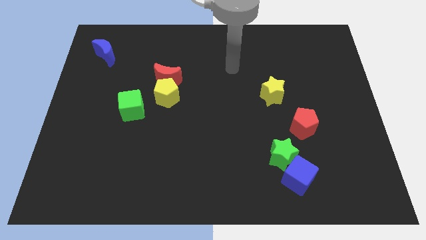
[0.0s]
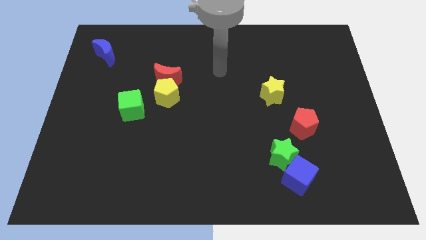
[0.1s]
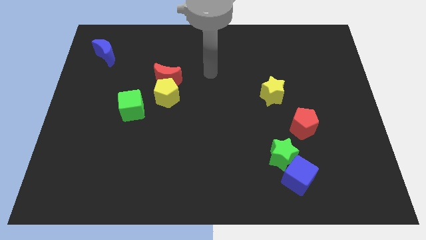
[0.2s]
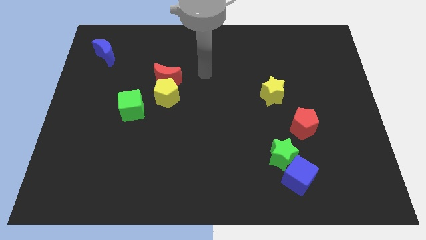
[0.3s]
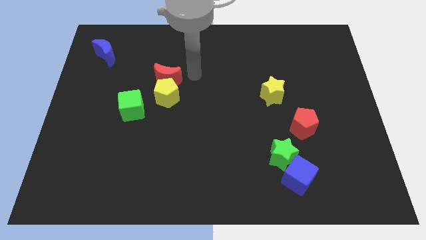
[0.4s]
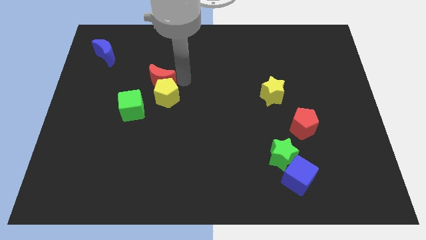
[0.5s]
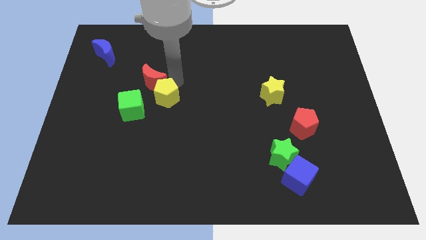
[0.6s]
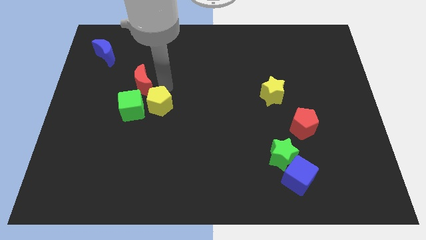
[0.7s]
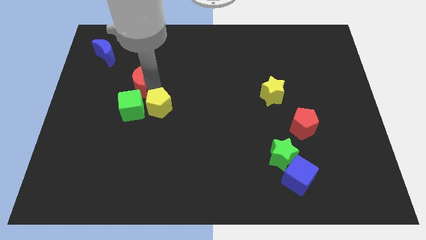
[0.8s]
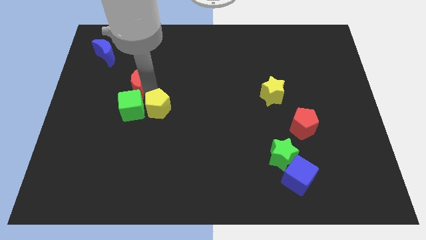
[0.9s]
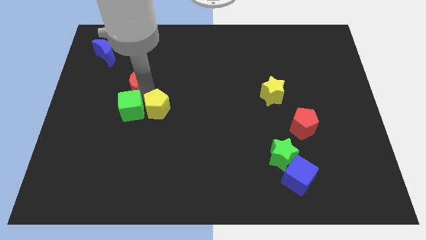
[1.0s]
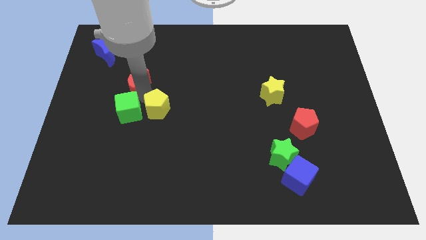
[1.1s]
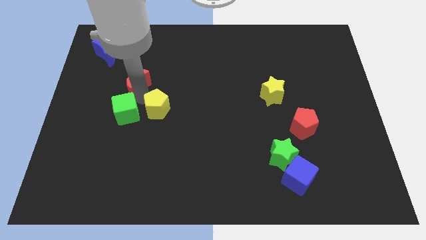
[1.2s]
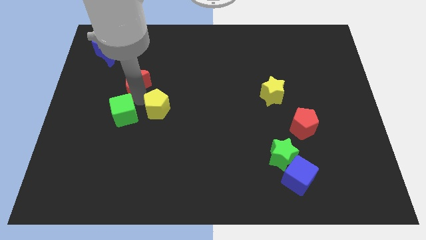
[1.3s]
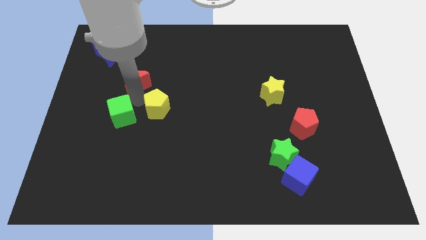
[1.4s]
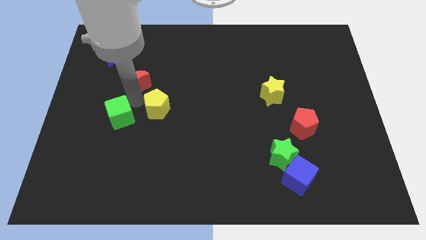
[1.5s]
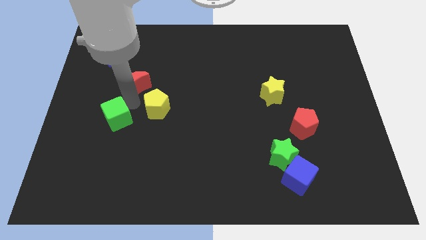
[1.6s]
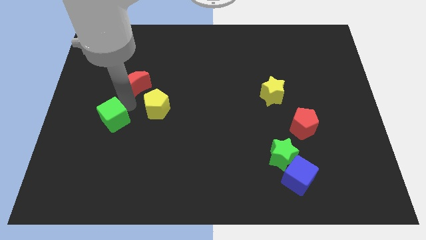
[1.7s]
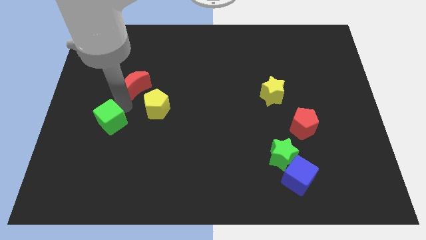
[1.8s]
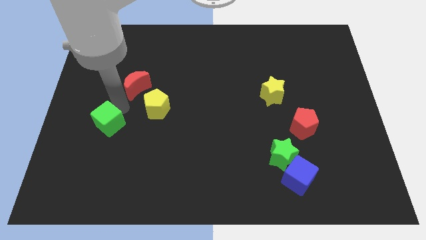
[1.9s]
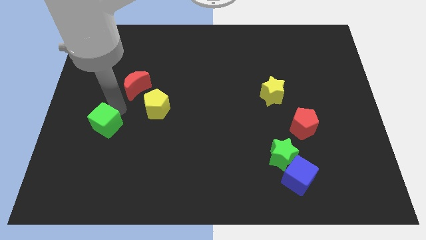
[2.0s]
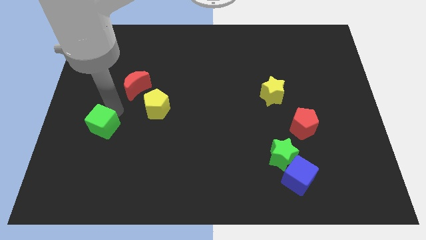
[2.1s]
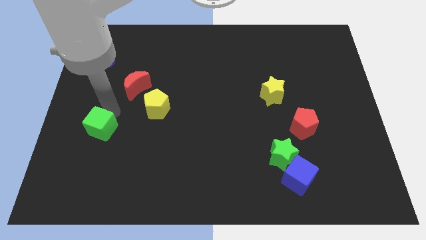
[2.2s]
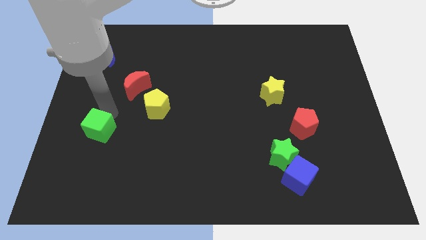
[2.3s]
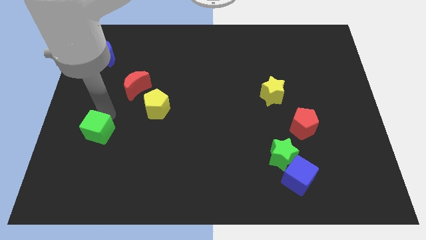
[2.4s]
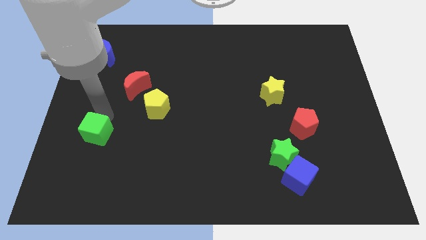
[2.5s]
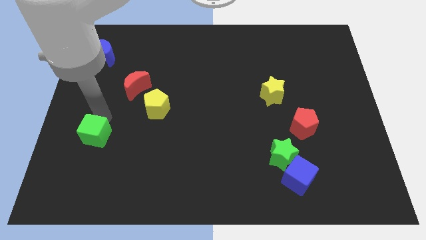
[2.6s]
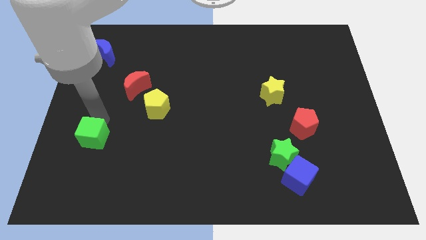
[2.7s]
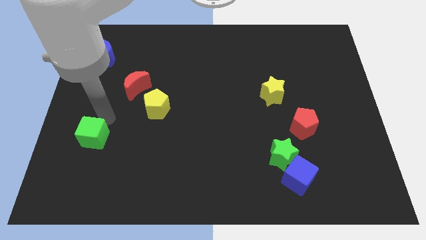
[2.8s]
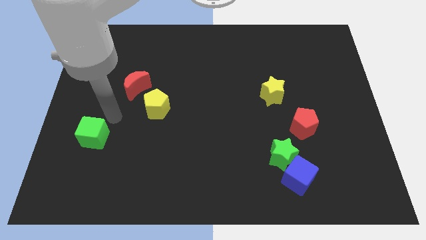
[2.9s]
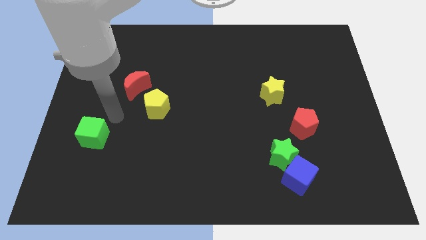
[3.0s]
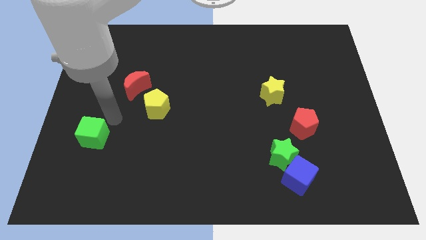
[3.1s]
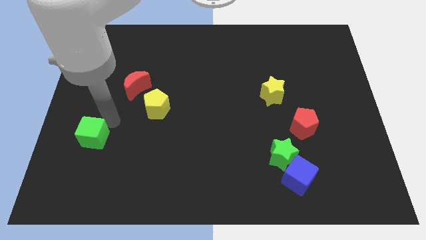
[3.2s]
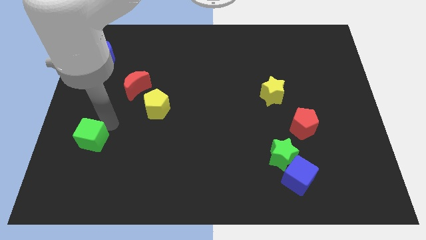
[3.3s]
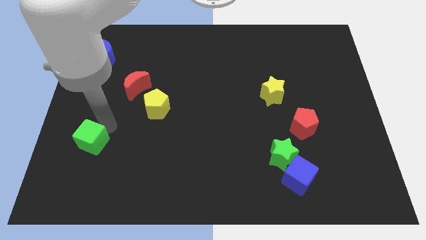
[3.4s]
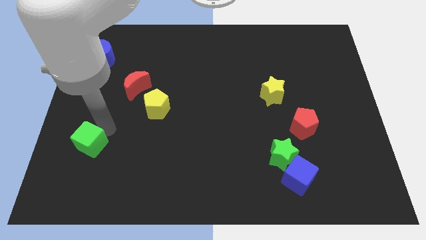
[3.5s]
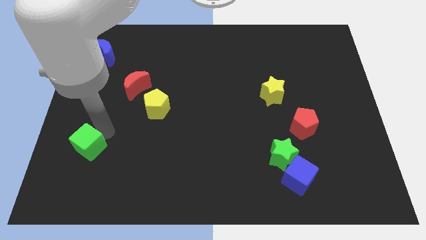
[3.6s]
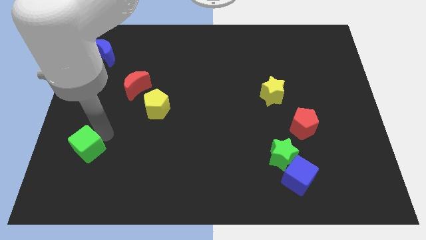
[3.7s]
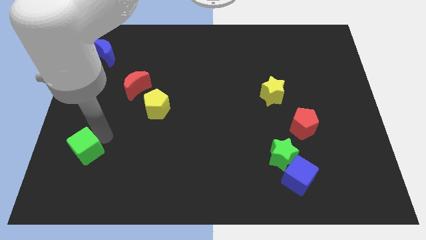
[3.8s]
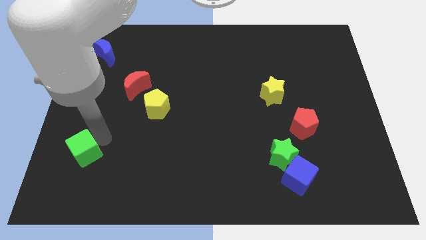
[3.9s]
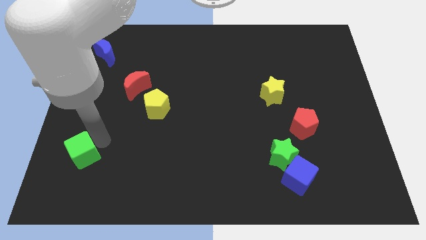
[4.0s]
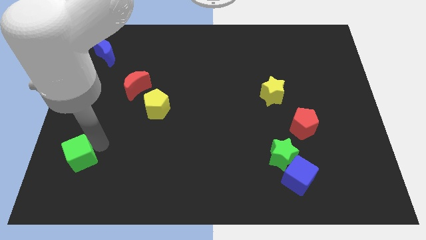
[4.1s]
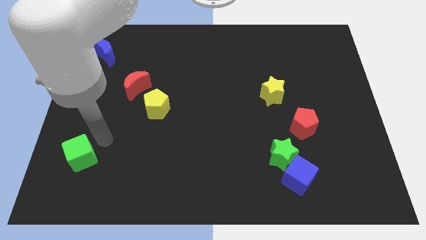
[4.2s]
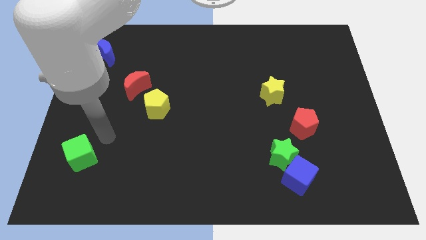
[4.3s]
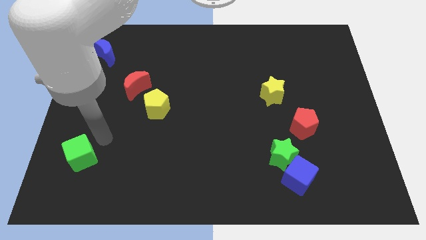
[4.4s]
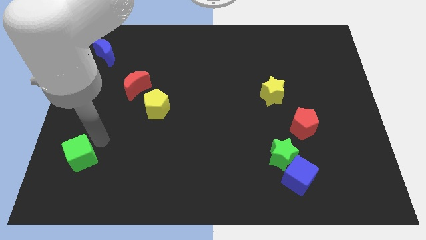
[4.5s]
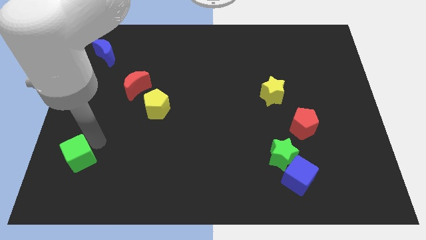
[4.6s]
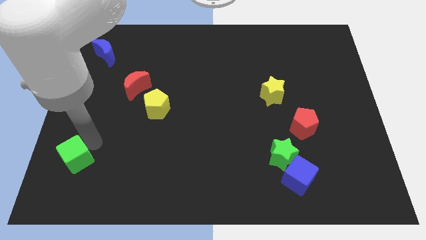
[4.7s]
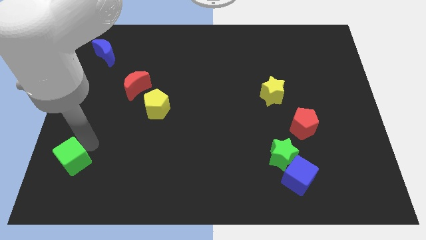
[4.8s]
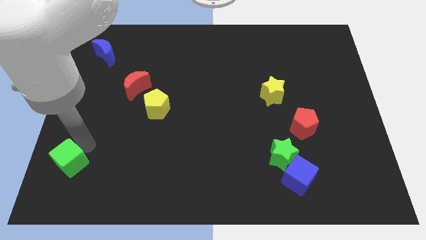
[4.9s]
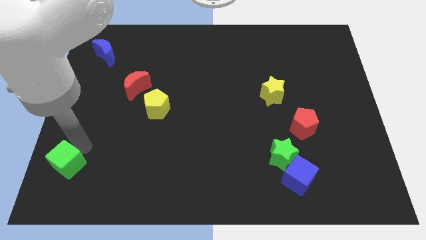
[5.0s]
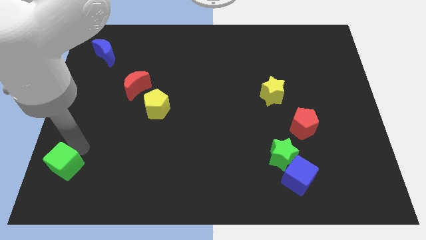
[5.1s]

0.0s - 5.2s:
move the green cube to the bottom left corner

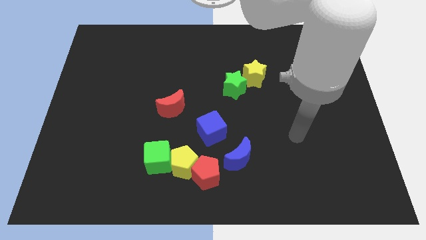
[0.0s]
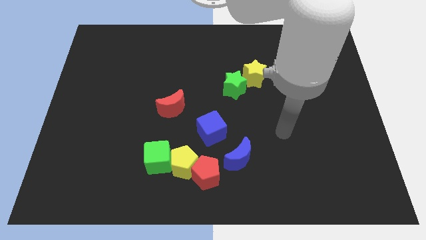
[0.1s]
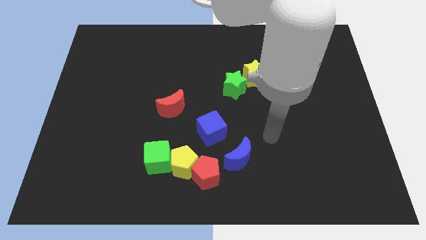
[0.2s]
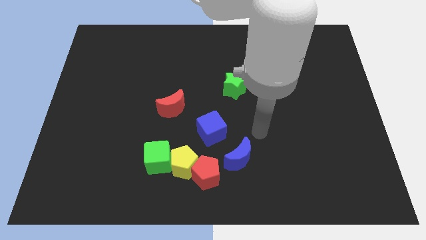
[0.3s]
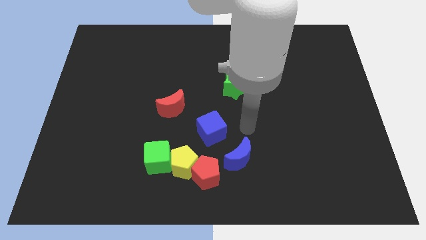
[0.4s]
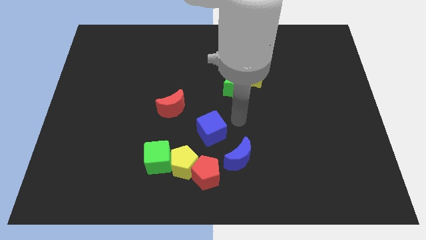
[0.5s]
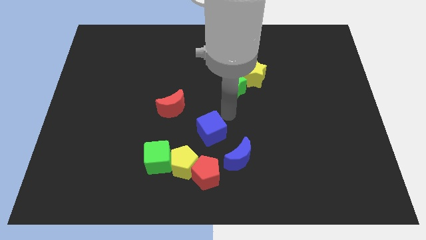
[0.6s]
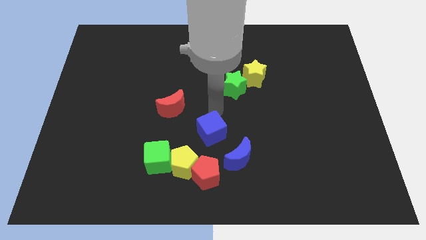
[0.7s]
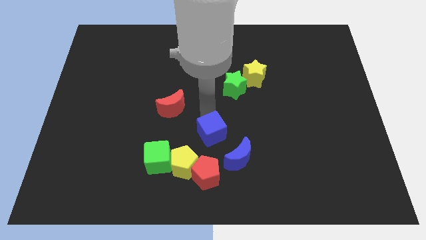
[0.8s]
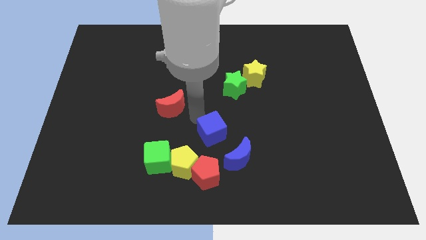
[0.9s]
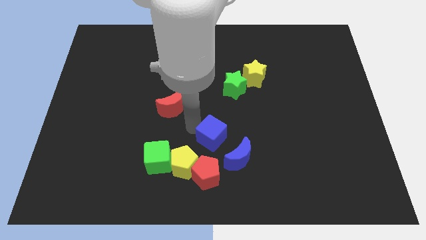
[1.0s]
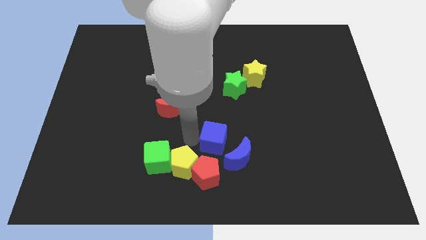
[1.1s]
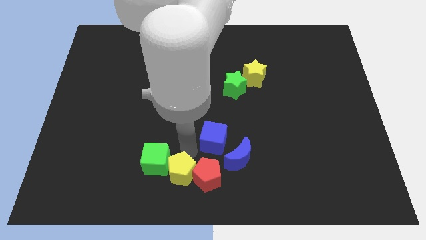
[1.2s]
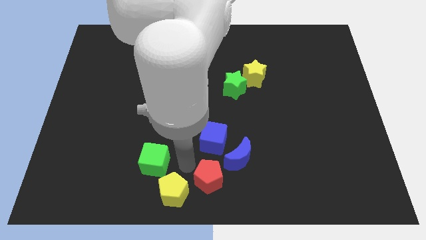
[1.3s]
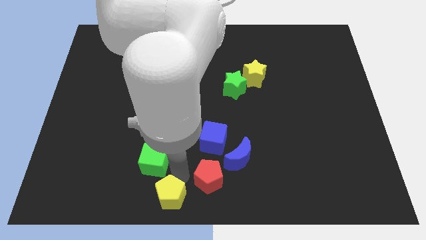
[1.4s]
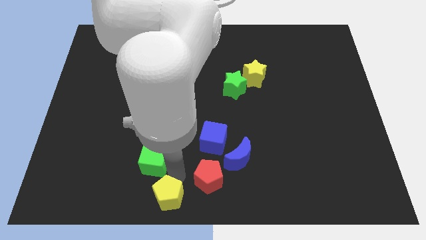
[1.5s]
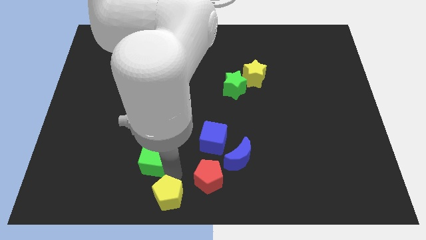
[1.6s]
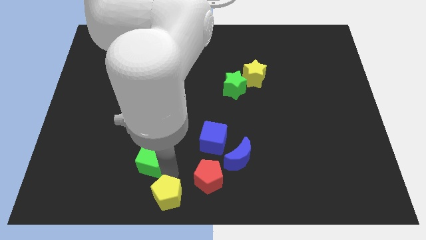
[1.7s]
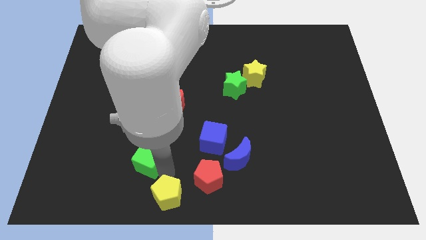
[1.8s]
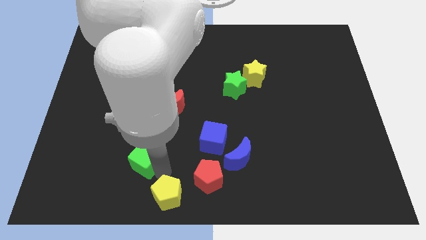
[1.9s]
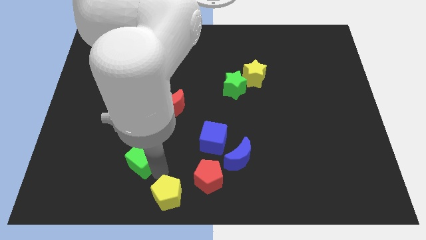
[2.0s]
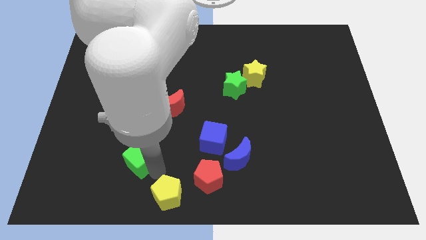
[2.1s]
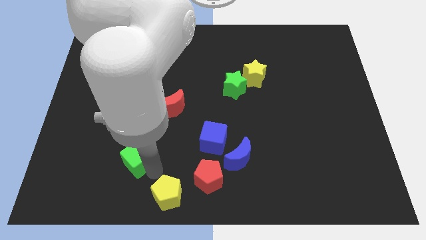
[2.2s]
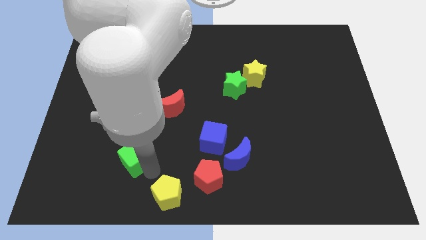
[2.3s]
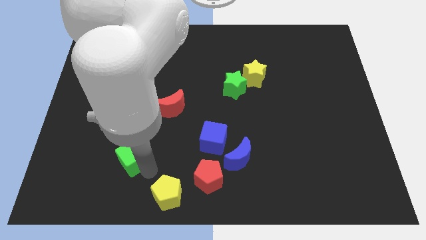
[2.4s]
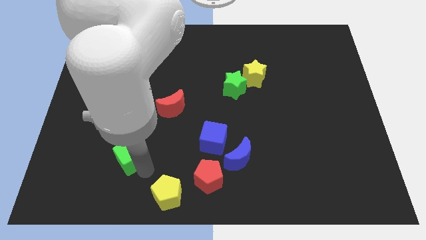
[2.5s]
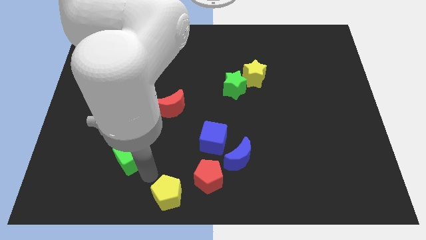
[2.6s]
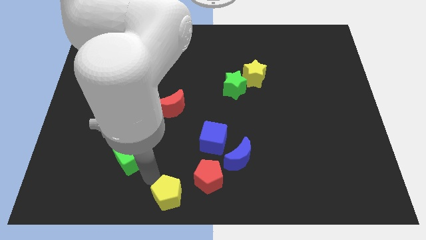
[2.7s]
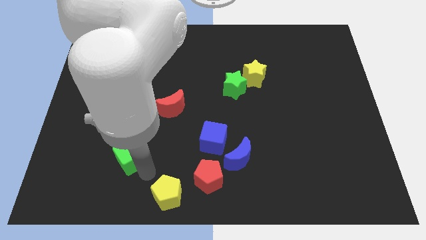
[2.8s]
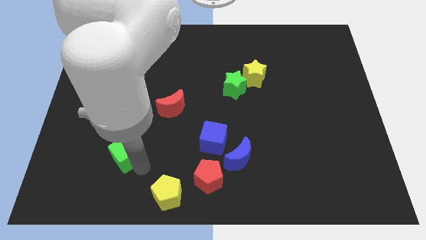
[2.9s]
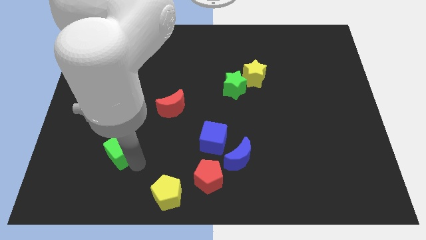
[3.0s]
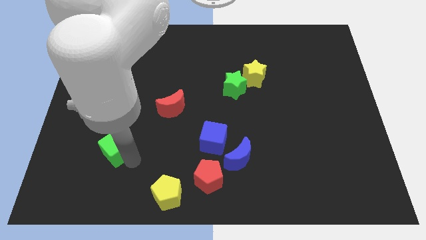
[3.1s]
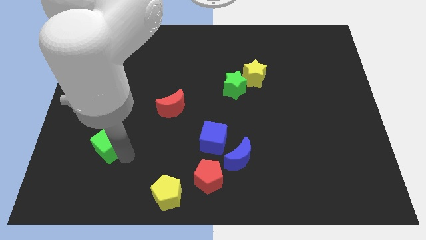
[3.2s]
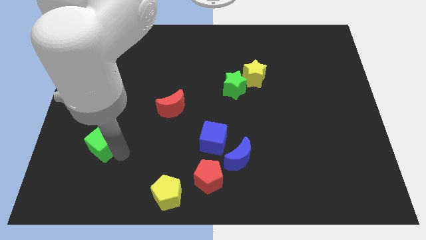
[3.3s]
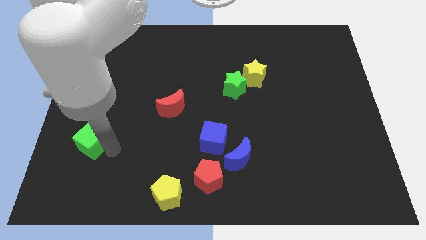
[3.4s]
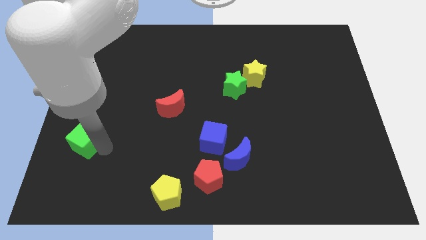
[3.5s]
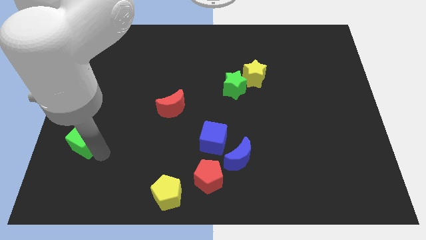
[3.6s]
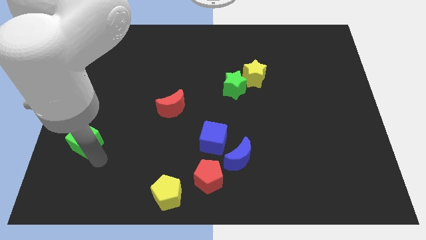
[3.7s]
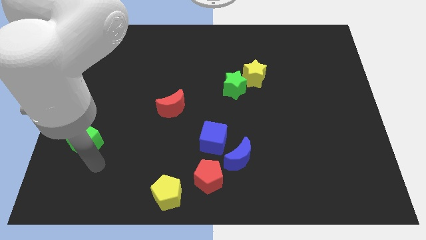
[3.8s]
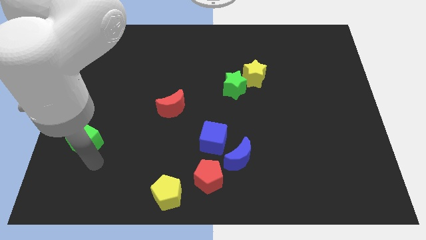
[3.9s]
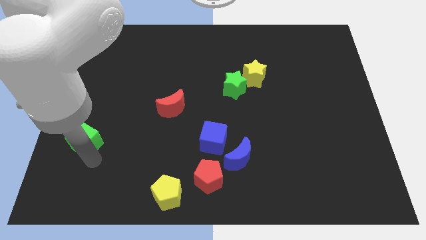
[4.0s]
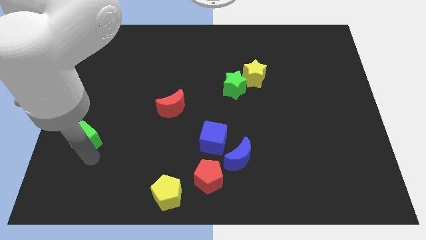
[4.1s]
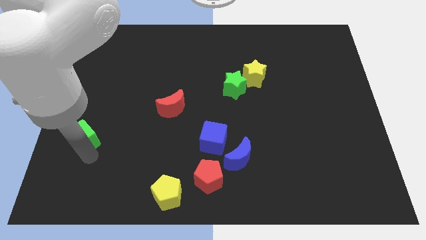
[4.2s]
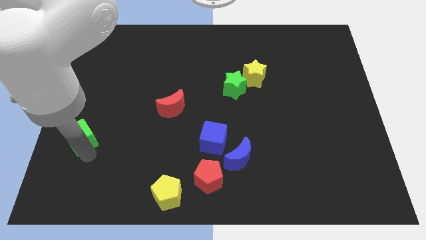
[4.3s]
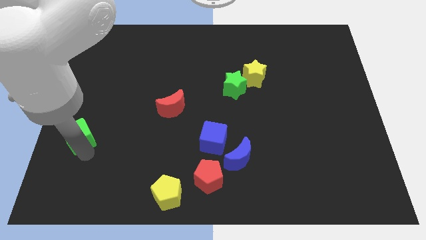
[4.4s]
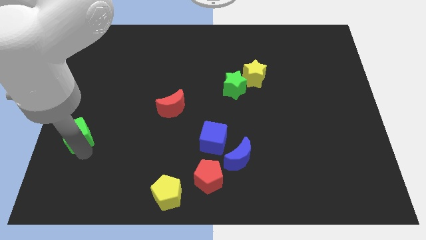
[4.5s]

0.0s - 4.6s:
slide the green cube to the left side
